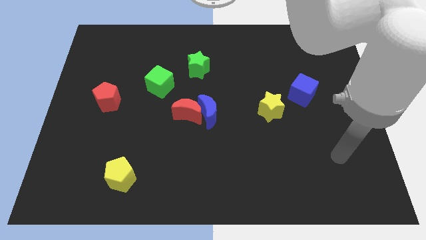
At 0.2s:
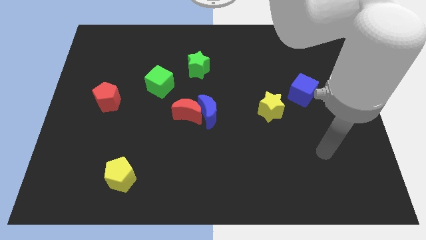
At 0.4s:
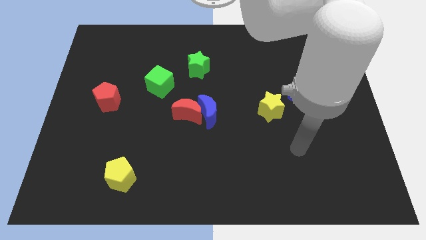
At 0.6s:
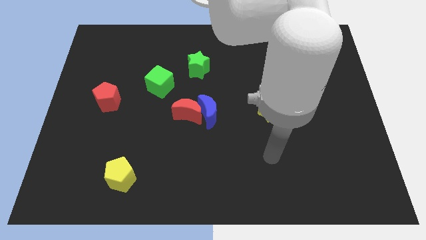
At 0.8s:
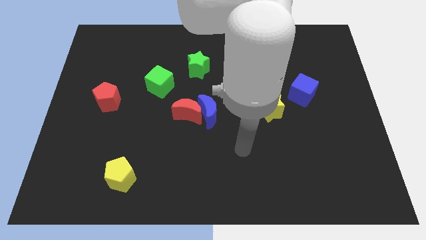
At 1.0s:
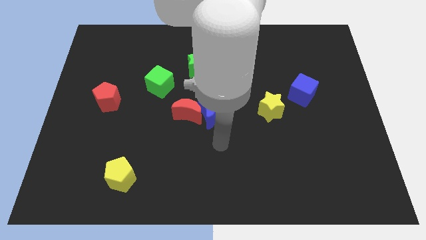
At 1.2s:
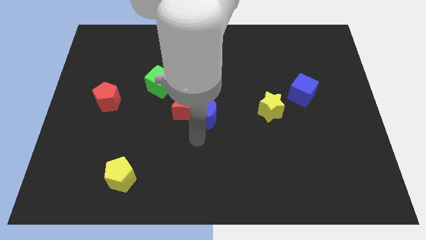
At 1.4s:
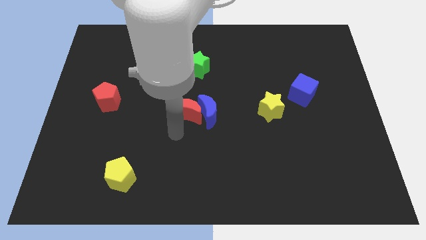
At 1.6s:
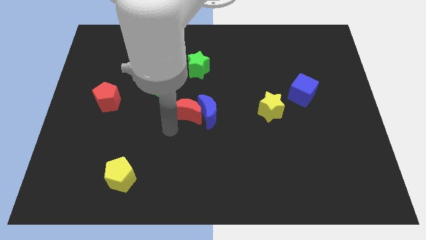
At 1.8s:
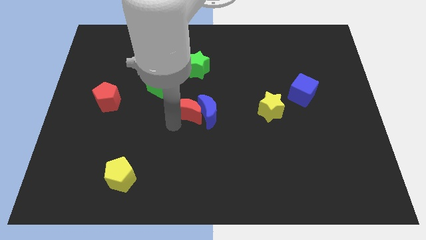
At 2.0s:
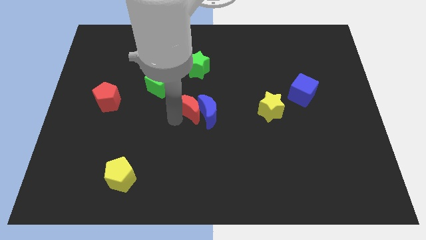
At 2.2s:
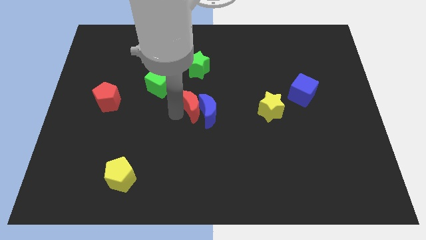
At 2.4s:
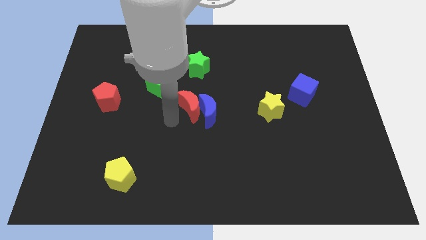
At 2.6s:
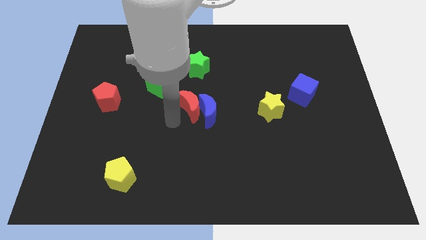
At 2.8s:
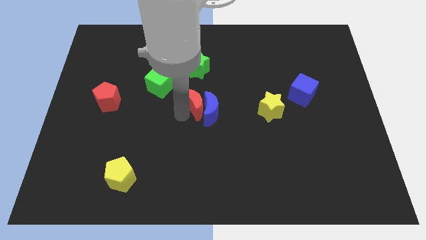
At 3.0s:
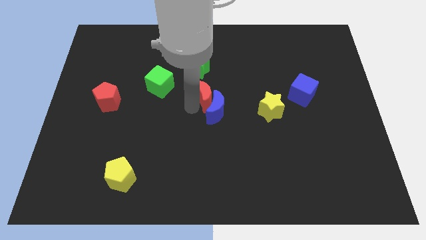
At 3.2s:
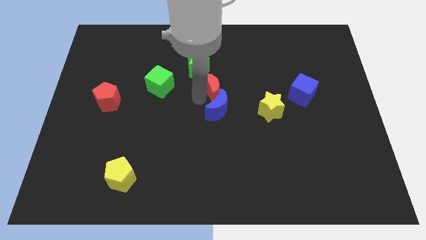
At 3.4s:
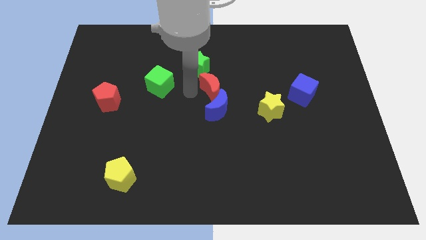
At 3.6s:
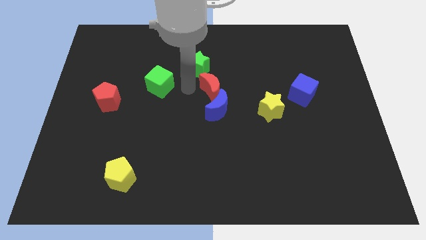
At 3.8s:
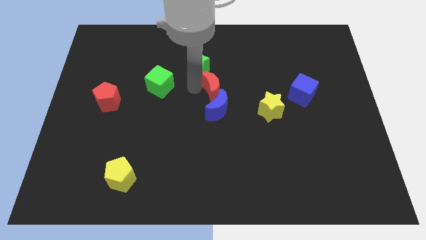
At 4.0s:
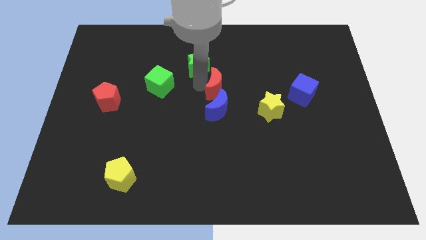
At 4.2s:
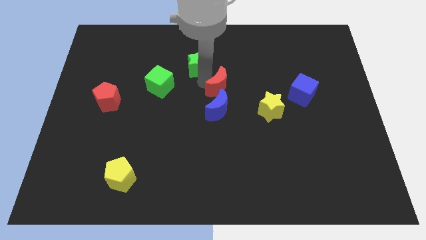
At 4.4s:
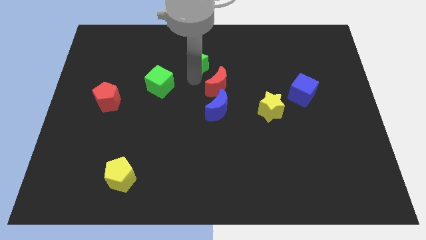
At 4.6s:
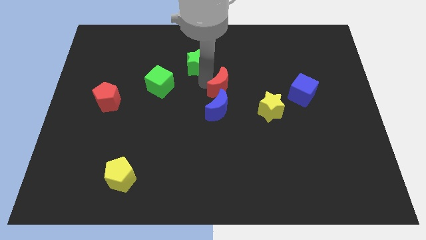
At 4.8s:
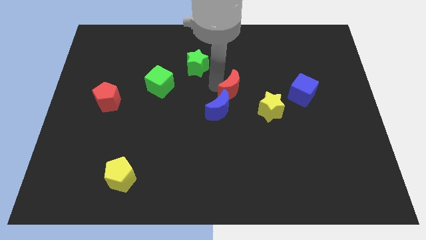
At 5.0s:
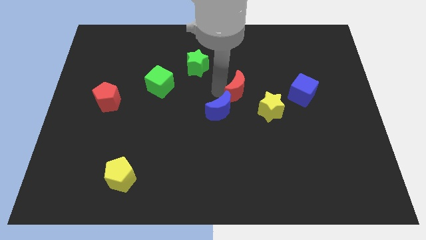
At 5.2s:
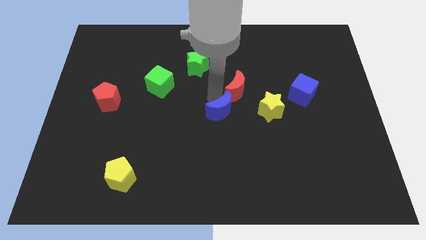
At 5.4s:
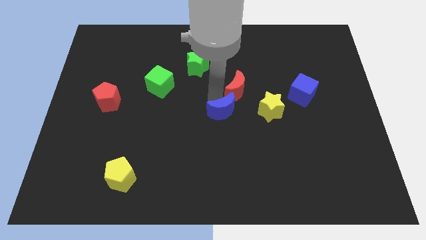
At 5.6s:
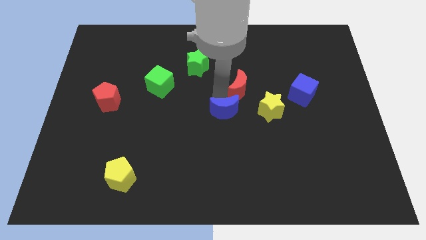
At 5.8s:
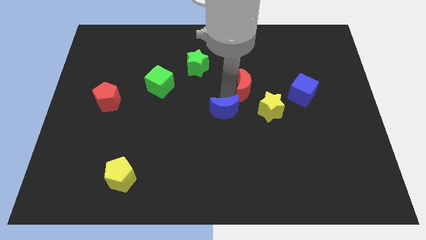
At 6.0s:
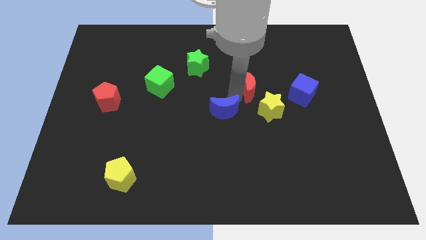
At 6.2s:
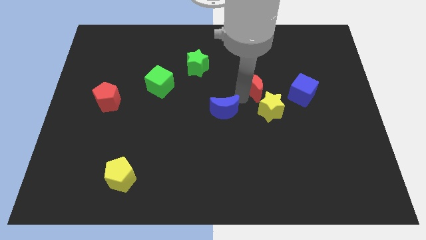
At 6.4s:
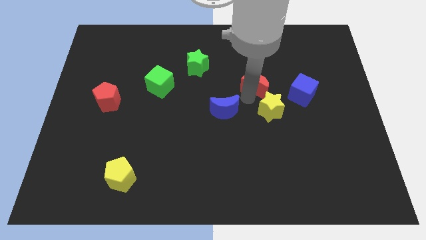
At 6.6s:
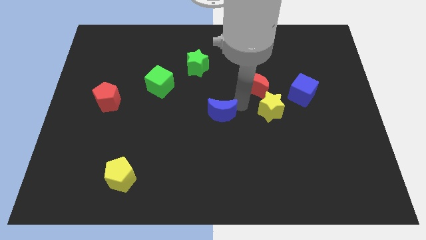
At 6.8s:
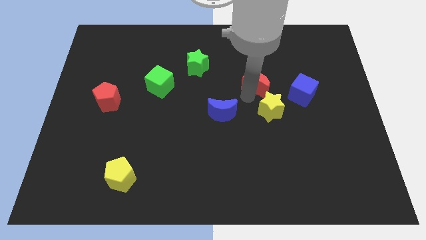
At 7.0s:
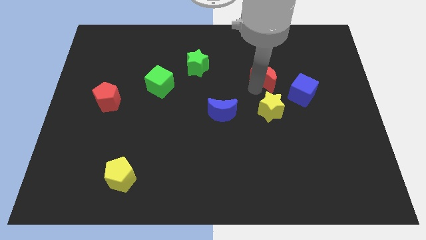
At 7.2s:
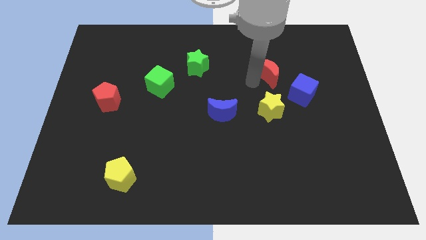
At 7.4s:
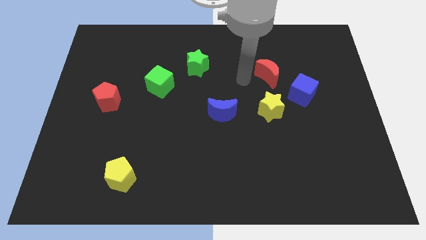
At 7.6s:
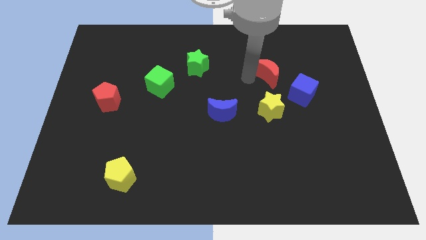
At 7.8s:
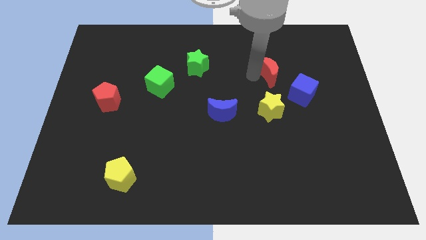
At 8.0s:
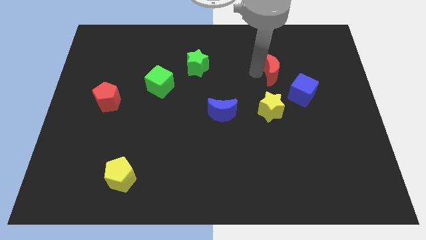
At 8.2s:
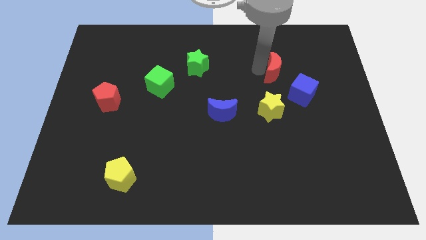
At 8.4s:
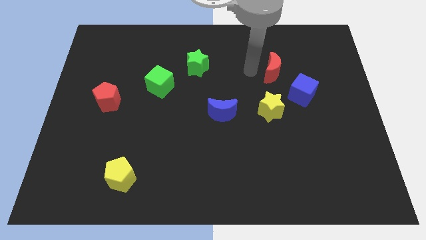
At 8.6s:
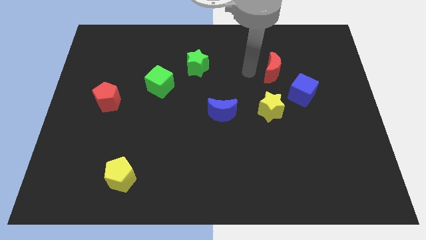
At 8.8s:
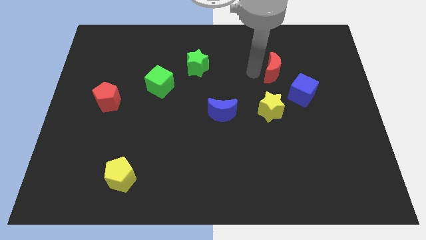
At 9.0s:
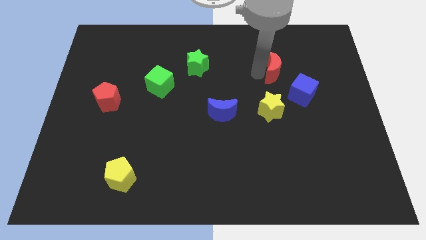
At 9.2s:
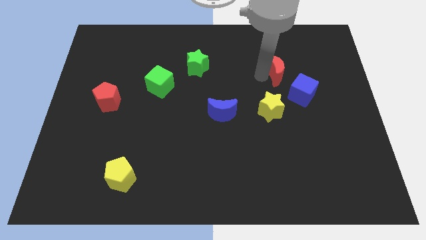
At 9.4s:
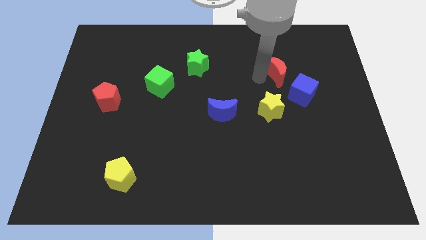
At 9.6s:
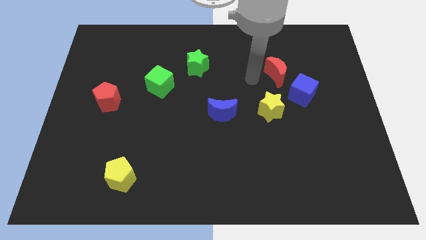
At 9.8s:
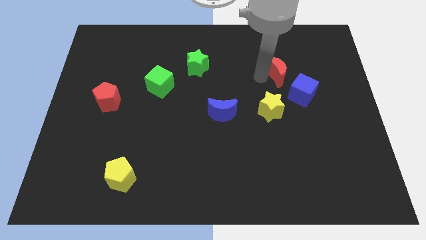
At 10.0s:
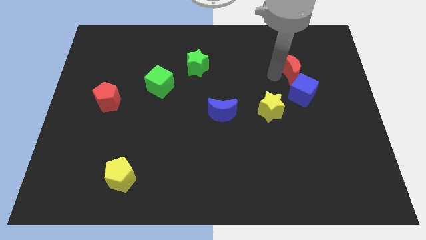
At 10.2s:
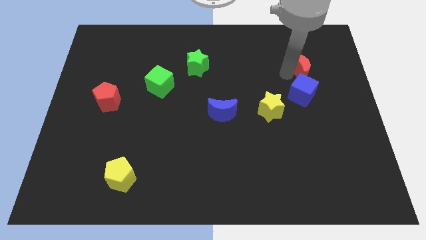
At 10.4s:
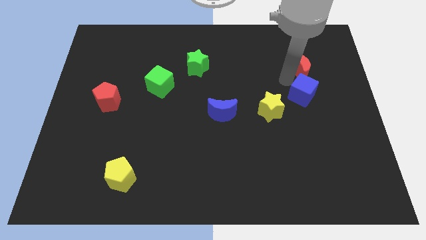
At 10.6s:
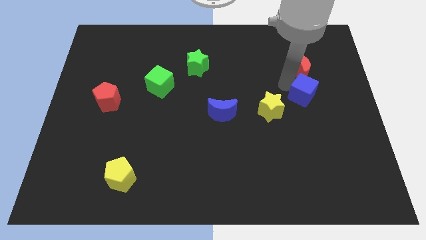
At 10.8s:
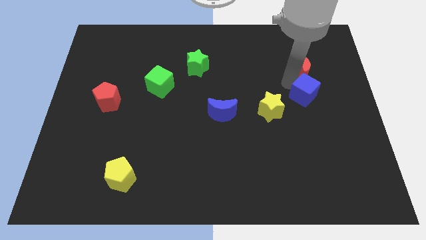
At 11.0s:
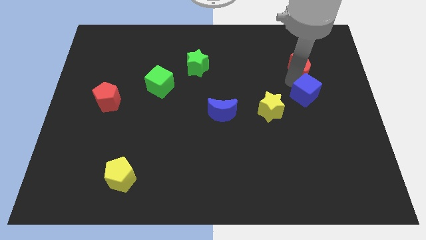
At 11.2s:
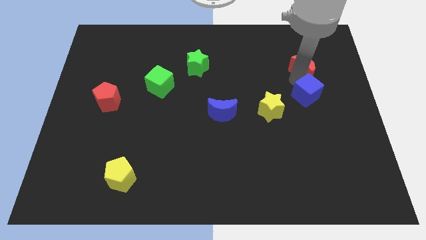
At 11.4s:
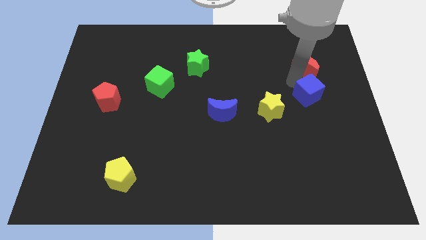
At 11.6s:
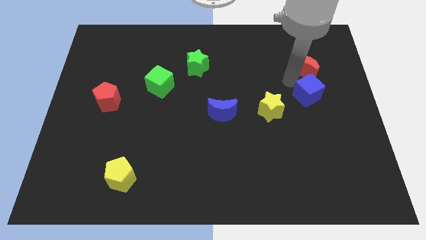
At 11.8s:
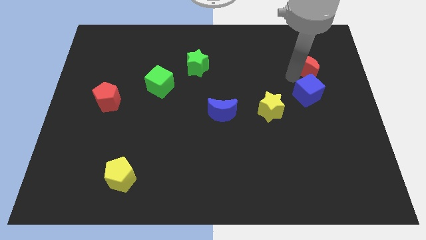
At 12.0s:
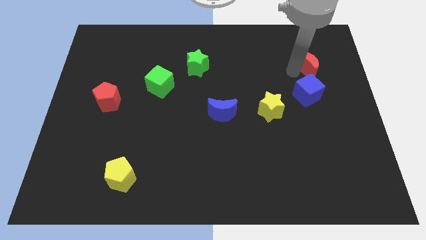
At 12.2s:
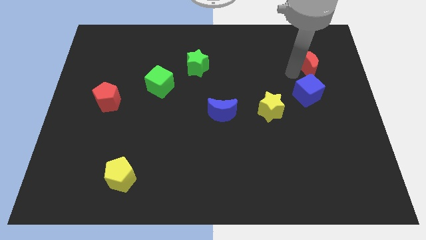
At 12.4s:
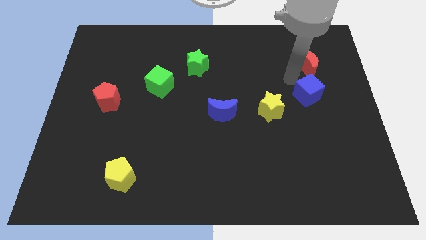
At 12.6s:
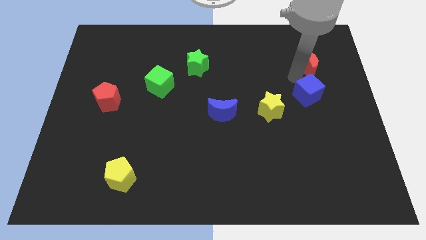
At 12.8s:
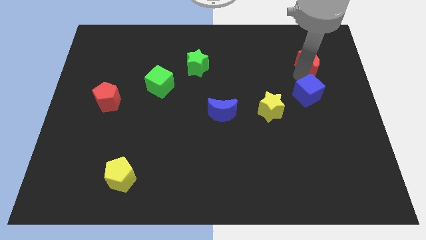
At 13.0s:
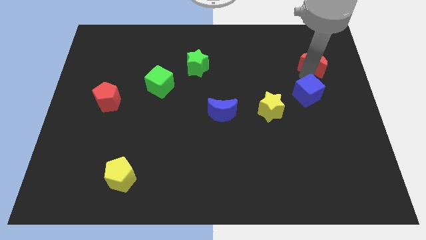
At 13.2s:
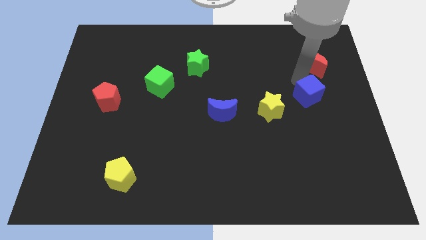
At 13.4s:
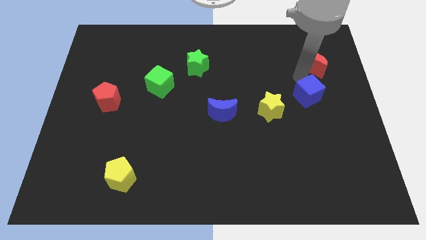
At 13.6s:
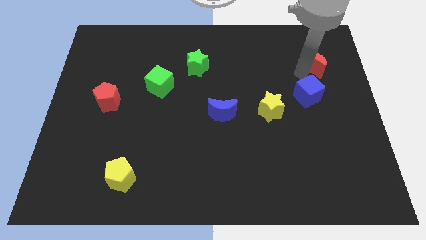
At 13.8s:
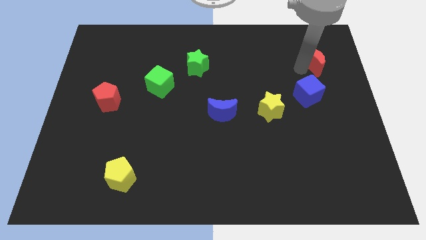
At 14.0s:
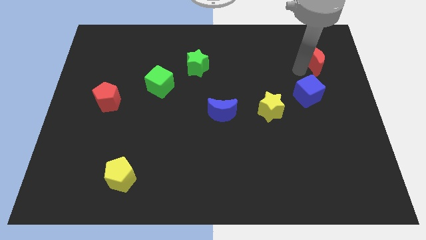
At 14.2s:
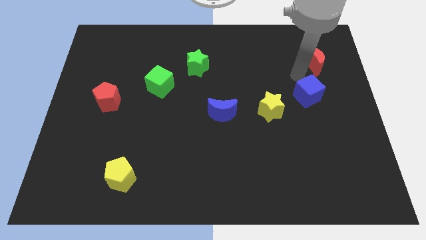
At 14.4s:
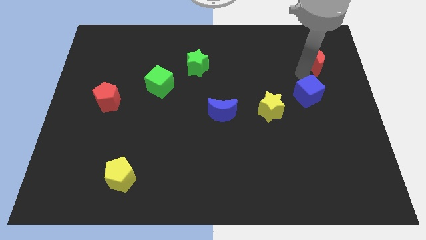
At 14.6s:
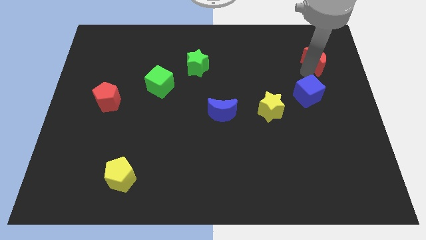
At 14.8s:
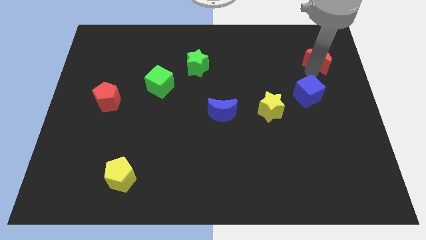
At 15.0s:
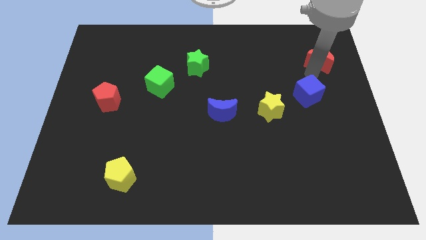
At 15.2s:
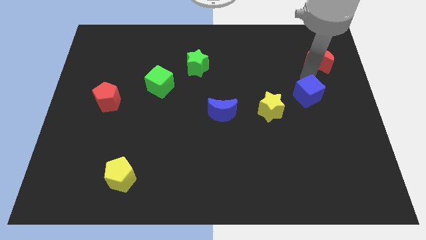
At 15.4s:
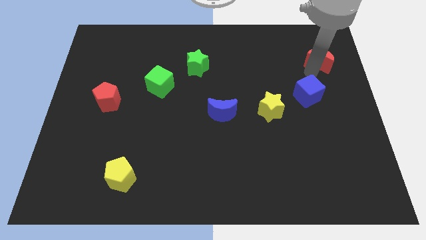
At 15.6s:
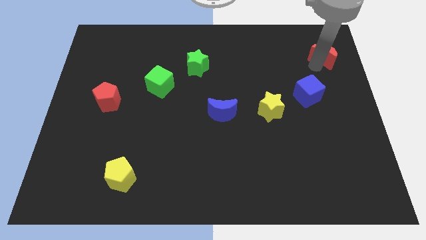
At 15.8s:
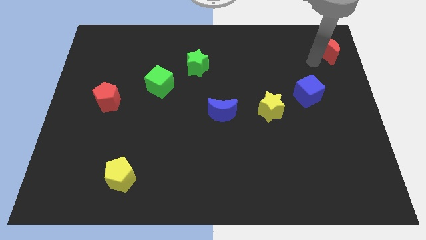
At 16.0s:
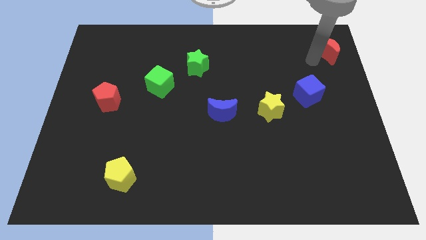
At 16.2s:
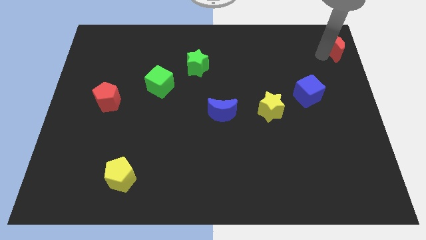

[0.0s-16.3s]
slide the red moon to the top right
